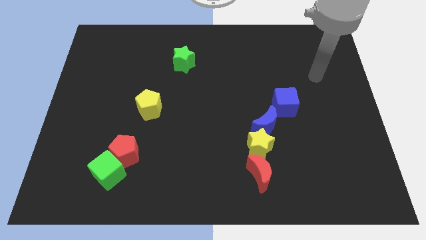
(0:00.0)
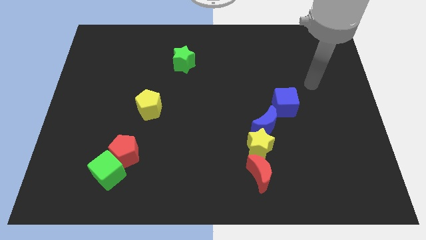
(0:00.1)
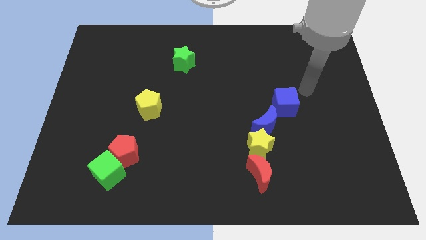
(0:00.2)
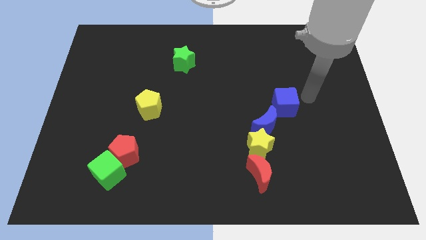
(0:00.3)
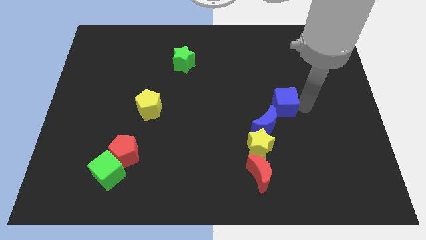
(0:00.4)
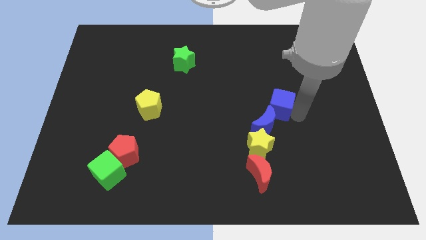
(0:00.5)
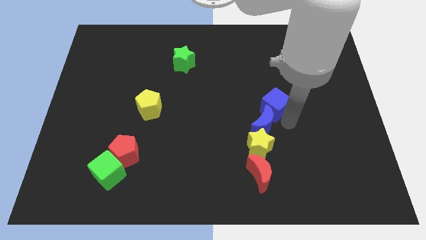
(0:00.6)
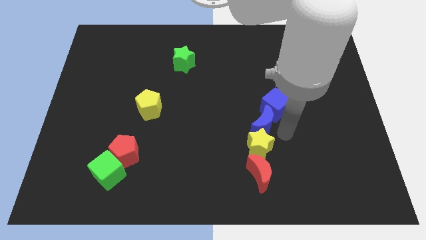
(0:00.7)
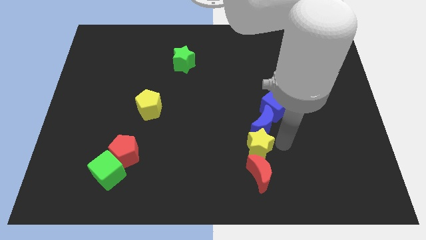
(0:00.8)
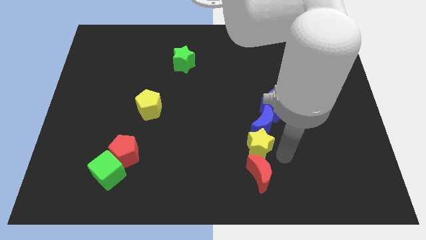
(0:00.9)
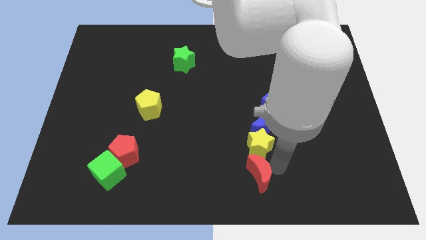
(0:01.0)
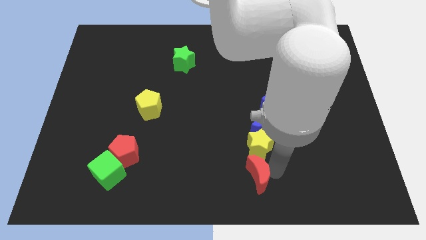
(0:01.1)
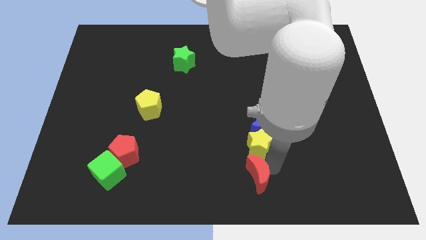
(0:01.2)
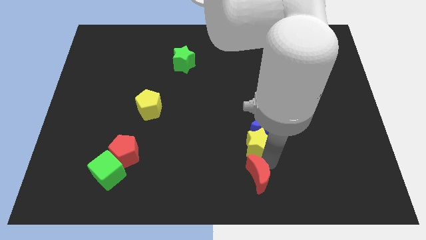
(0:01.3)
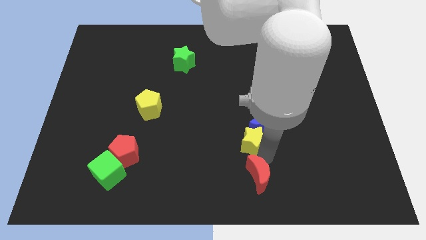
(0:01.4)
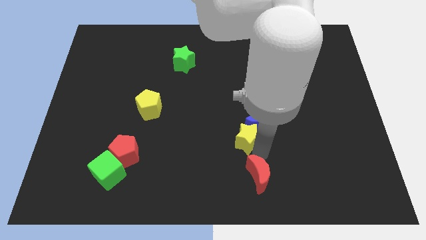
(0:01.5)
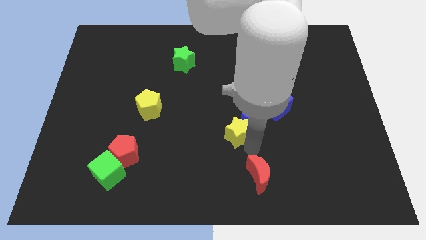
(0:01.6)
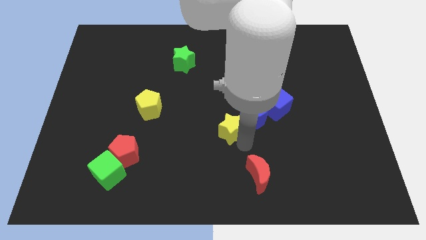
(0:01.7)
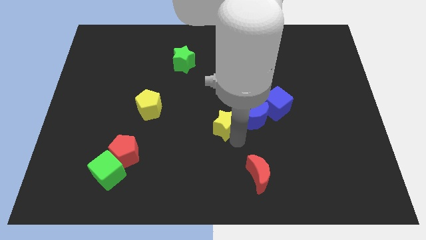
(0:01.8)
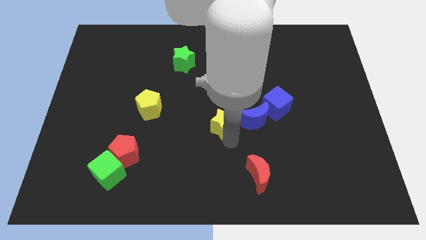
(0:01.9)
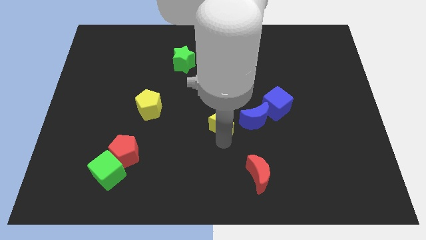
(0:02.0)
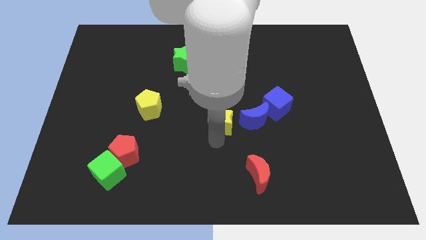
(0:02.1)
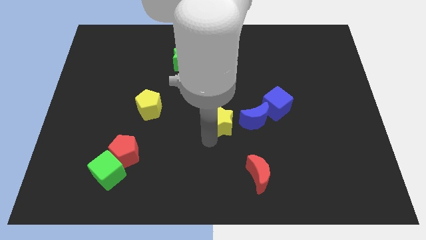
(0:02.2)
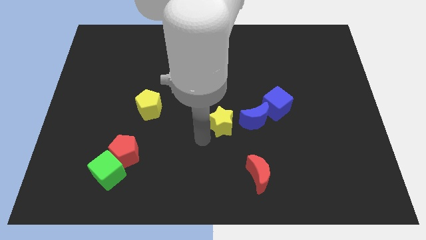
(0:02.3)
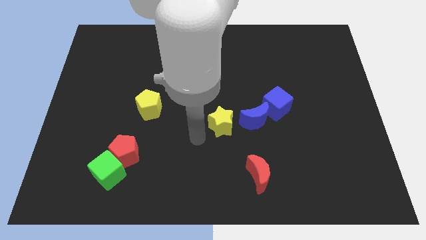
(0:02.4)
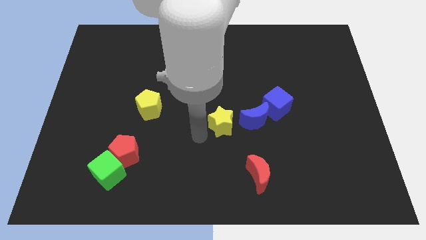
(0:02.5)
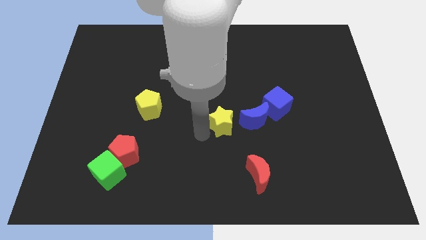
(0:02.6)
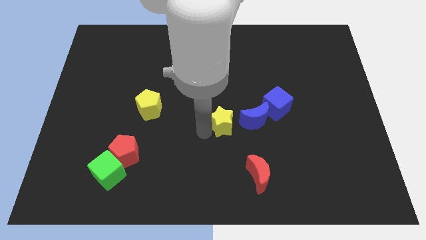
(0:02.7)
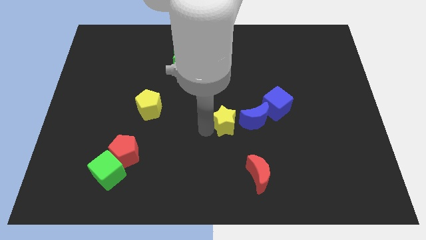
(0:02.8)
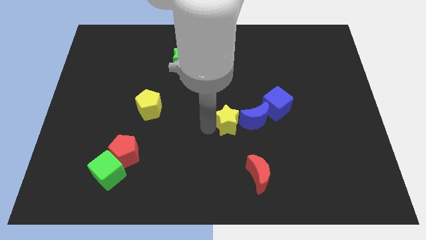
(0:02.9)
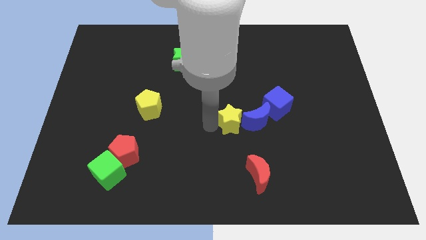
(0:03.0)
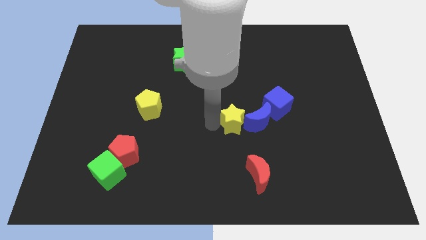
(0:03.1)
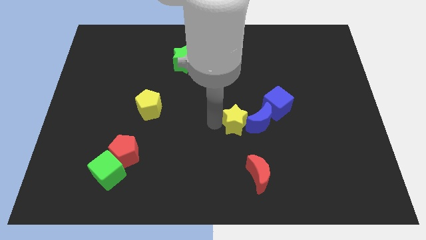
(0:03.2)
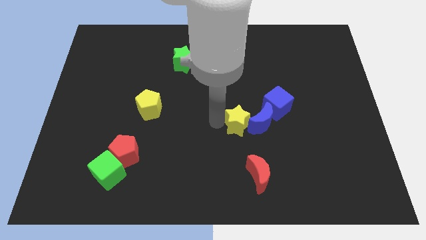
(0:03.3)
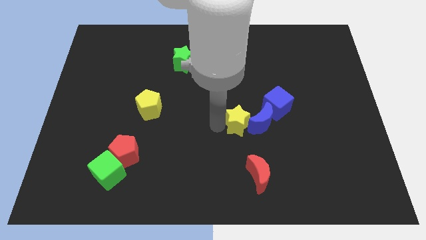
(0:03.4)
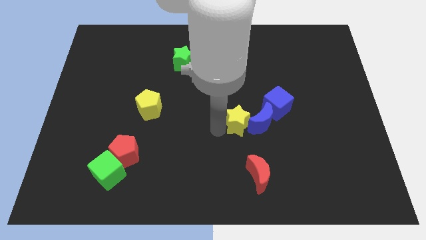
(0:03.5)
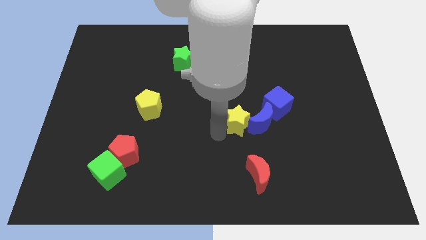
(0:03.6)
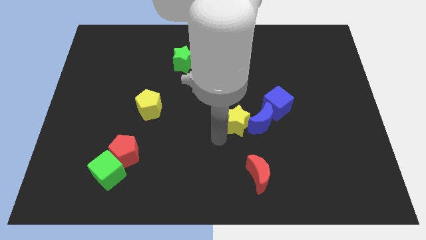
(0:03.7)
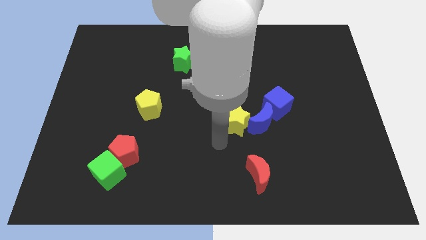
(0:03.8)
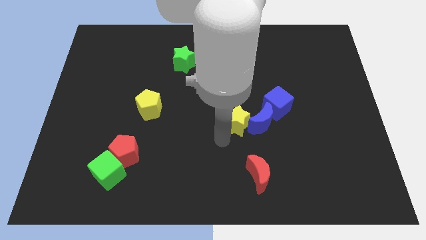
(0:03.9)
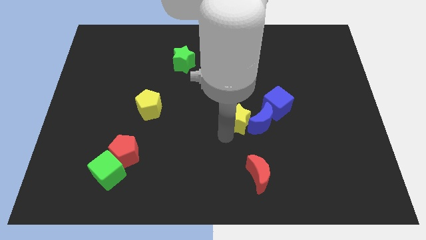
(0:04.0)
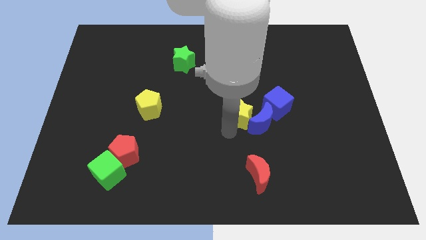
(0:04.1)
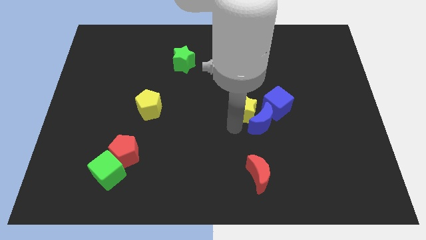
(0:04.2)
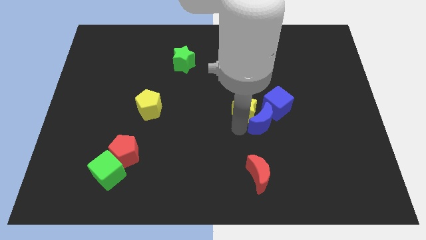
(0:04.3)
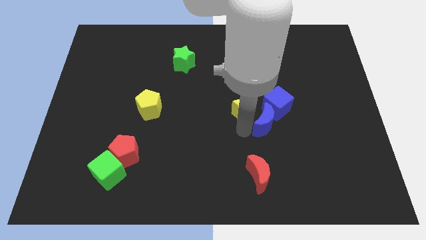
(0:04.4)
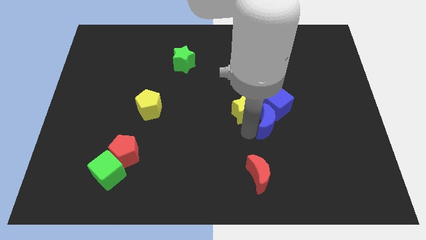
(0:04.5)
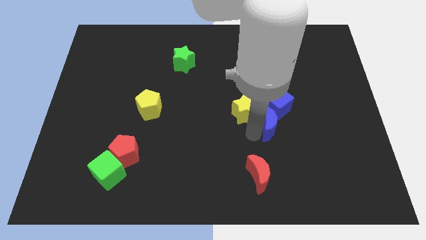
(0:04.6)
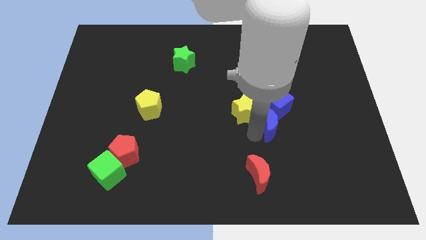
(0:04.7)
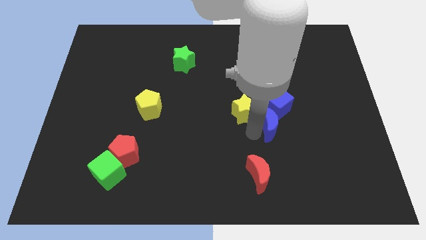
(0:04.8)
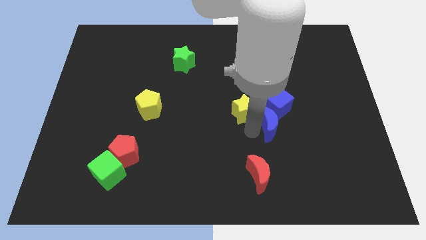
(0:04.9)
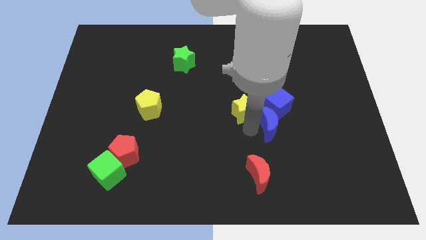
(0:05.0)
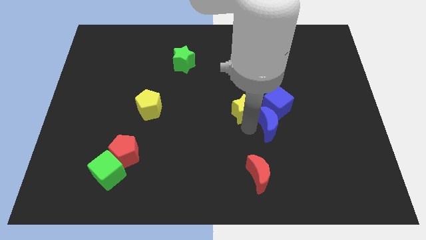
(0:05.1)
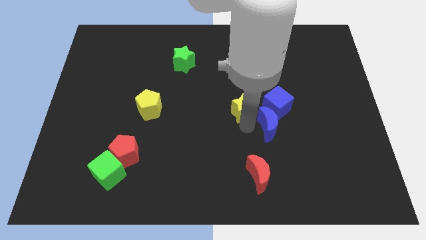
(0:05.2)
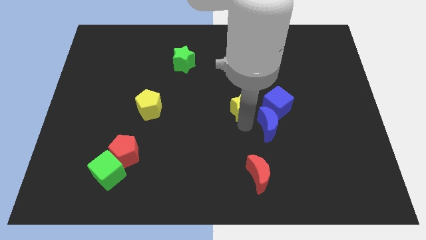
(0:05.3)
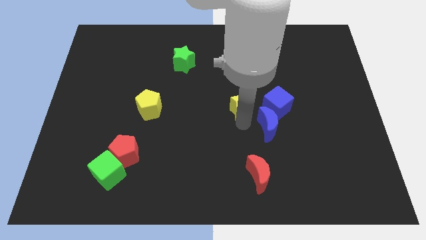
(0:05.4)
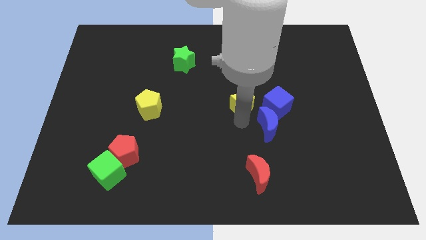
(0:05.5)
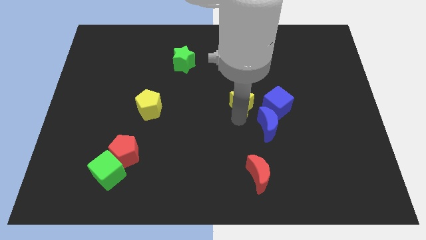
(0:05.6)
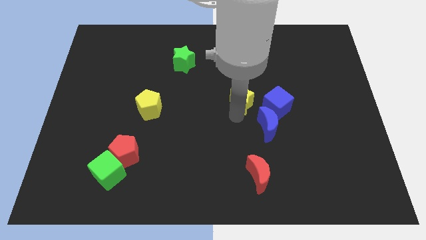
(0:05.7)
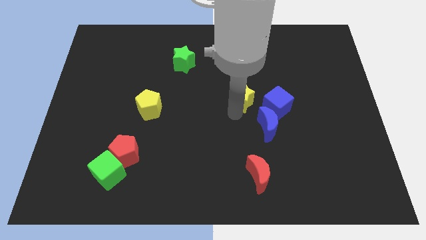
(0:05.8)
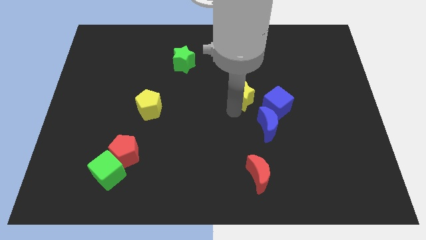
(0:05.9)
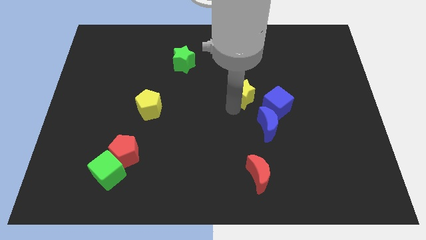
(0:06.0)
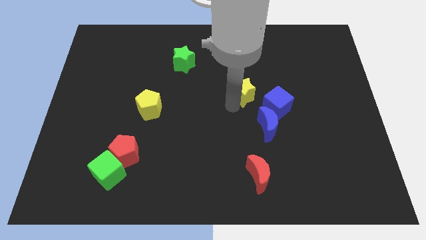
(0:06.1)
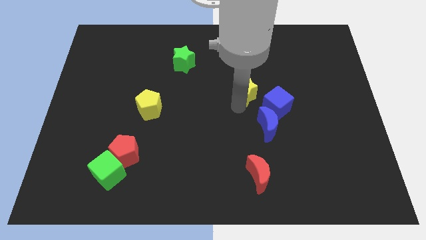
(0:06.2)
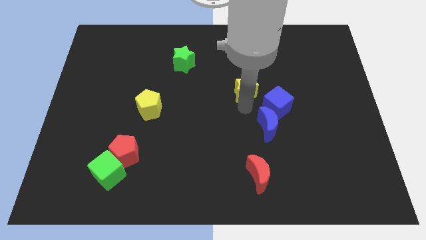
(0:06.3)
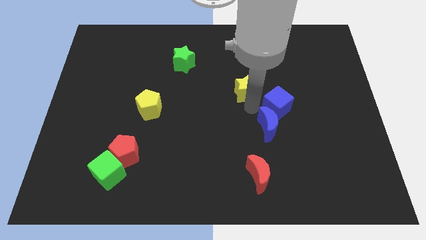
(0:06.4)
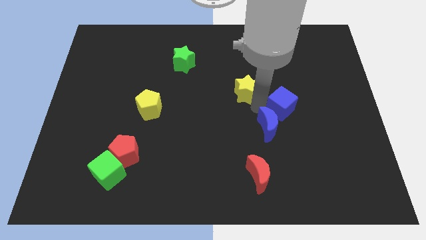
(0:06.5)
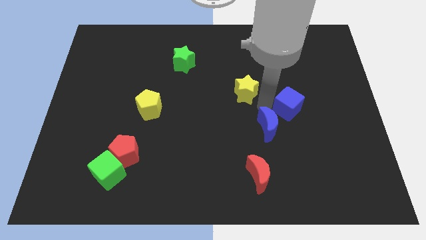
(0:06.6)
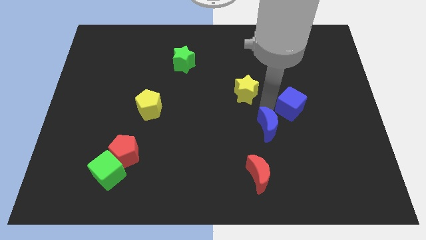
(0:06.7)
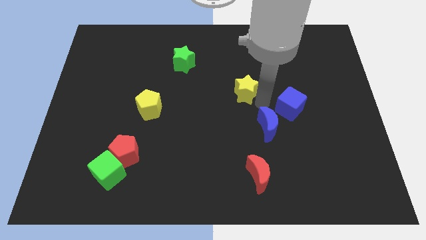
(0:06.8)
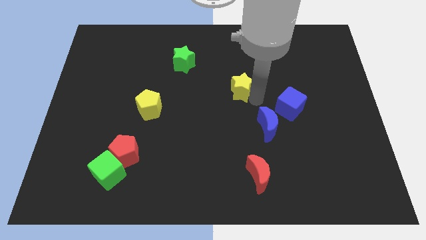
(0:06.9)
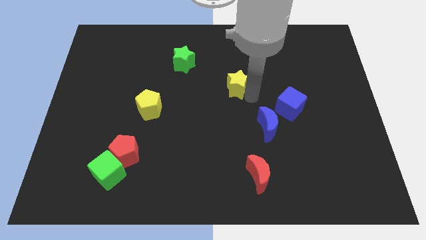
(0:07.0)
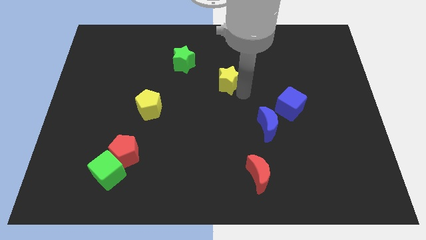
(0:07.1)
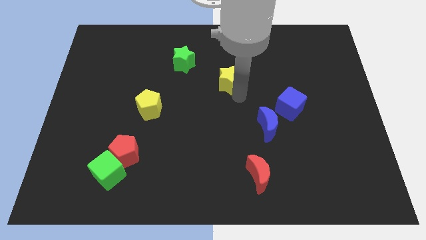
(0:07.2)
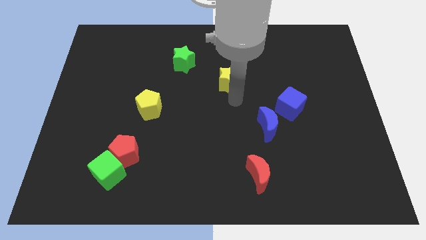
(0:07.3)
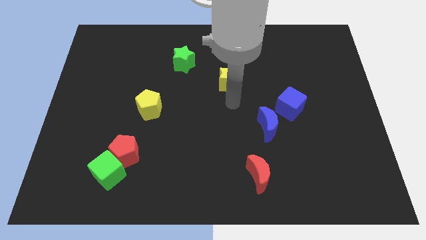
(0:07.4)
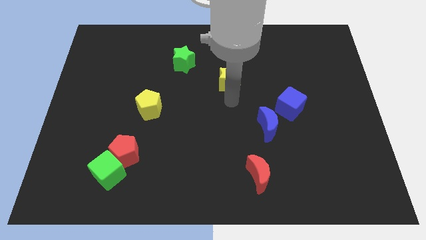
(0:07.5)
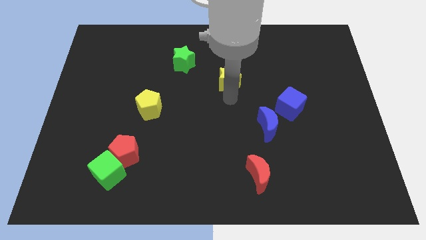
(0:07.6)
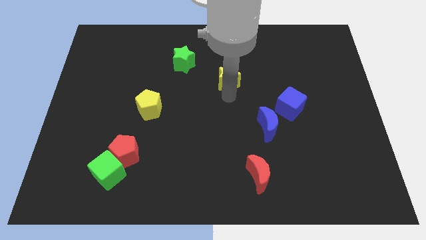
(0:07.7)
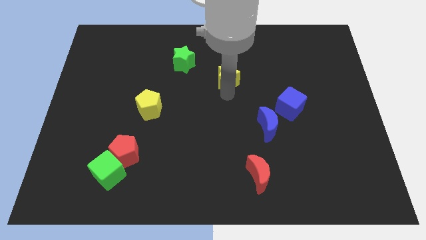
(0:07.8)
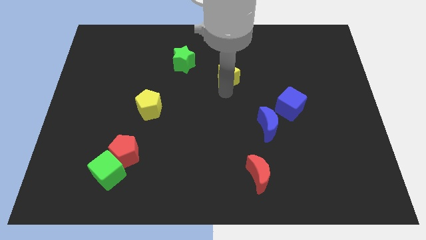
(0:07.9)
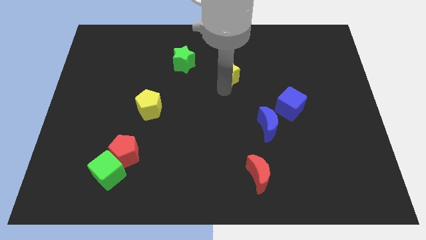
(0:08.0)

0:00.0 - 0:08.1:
push the yellow star to the right side of the green star

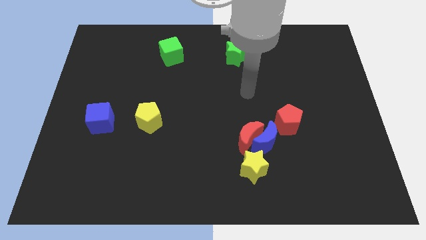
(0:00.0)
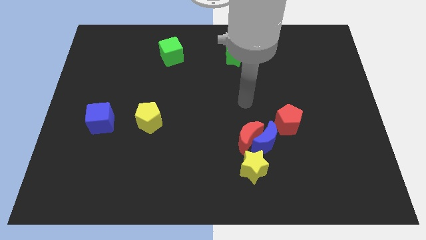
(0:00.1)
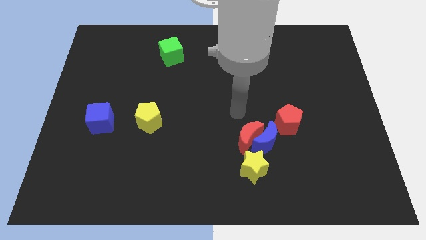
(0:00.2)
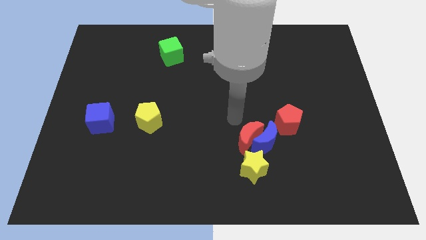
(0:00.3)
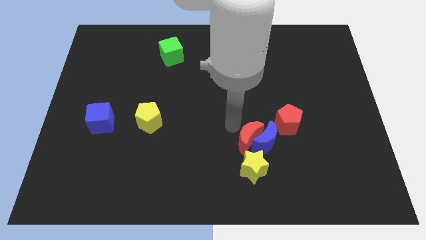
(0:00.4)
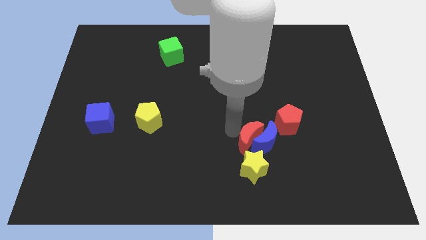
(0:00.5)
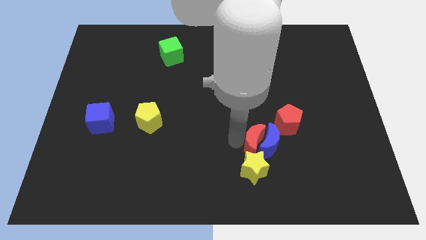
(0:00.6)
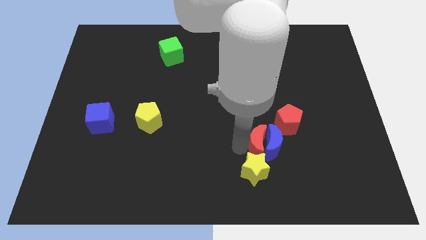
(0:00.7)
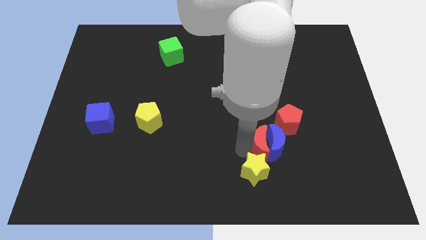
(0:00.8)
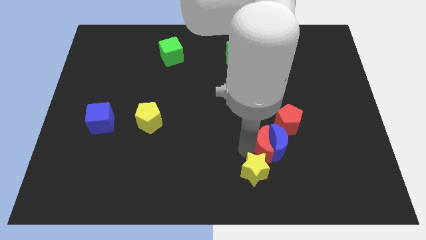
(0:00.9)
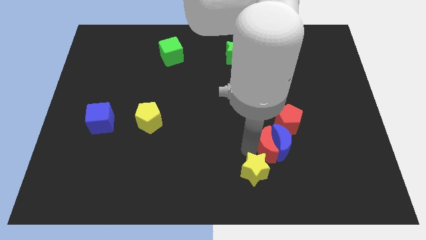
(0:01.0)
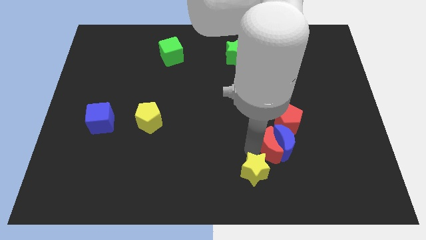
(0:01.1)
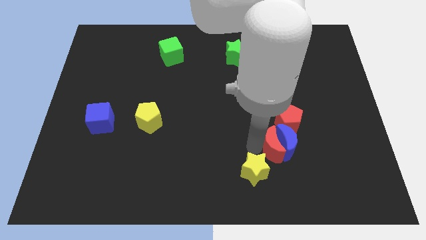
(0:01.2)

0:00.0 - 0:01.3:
put the blue moon to the bottom right side of the red pentagon
